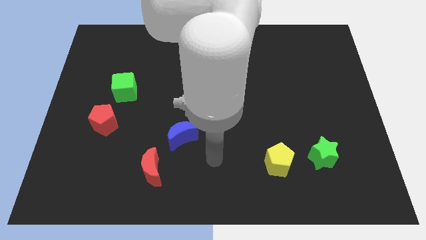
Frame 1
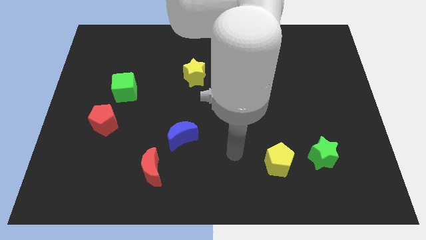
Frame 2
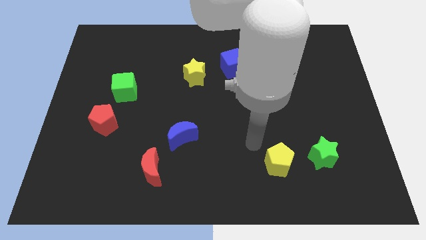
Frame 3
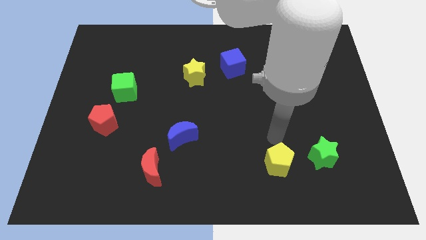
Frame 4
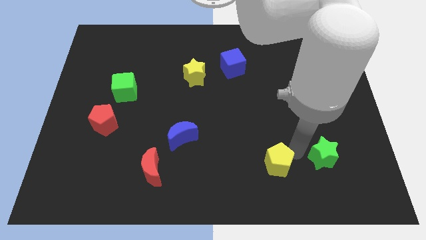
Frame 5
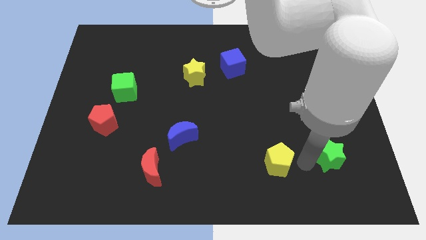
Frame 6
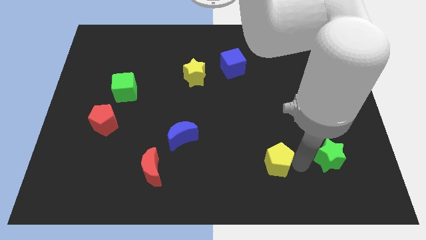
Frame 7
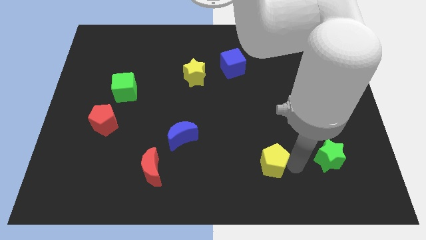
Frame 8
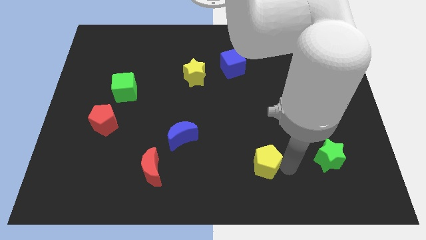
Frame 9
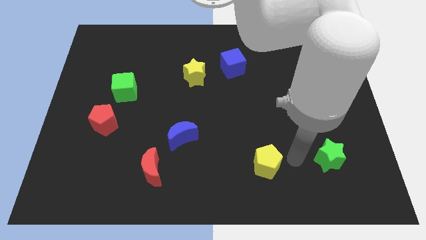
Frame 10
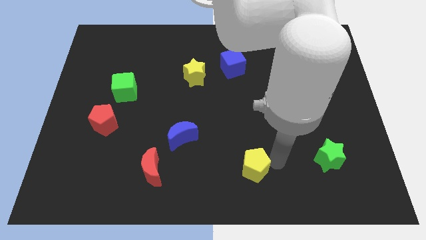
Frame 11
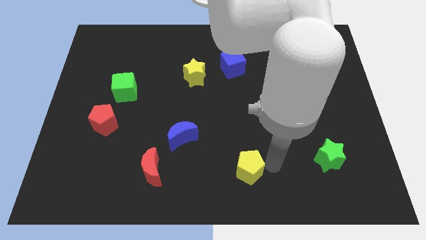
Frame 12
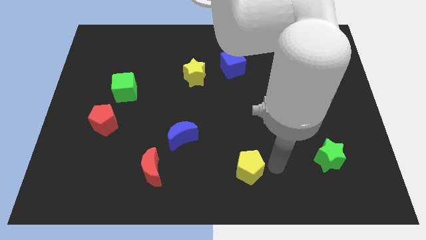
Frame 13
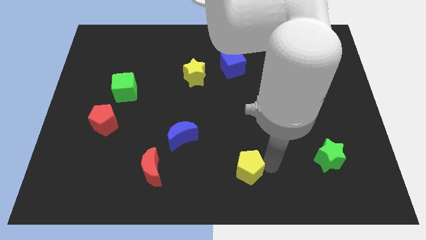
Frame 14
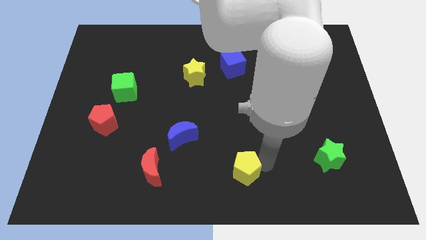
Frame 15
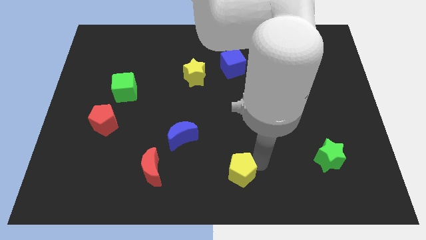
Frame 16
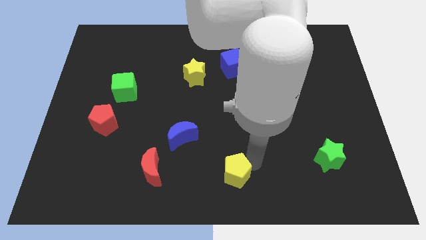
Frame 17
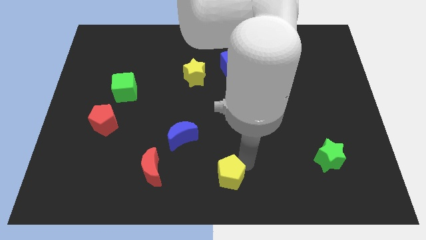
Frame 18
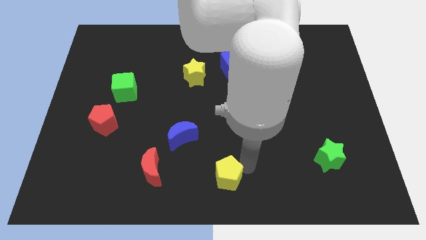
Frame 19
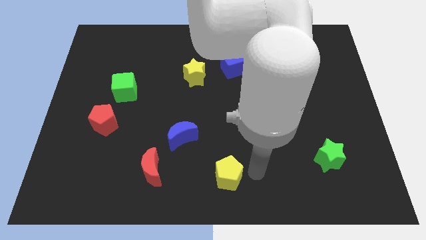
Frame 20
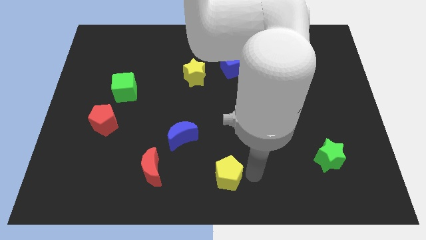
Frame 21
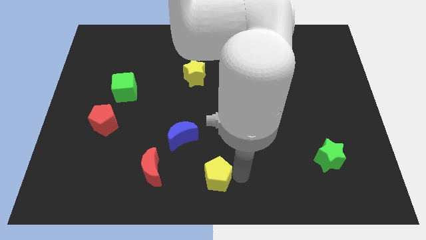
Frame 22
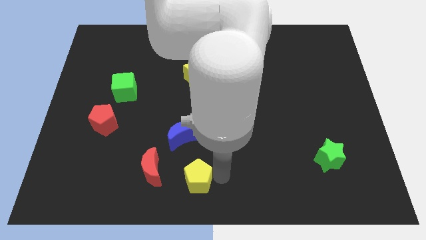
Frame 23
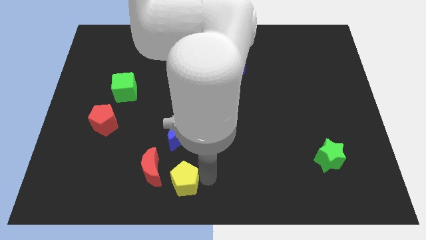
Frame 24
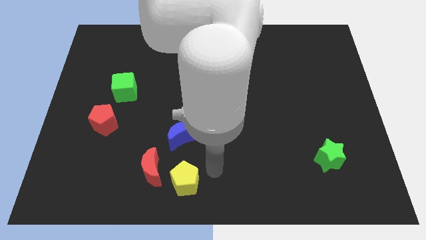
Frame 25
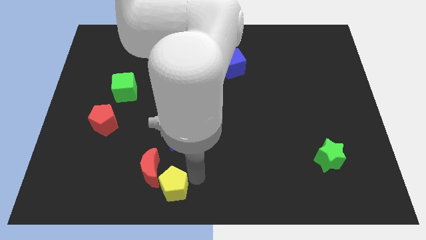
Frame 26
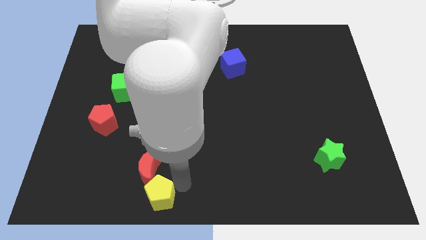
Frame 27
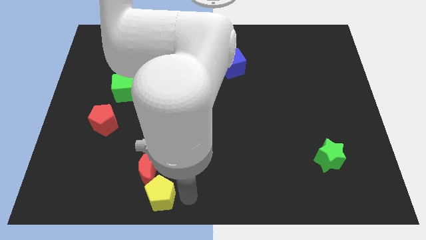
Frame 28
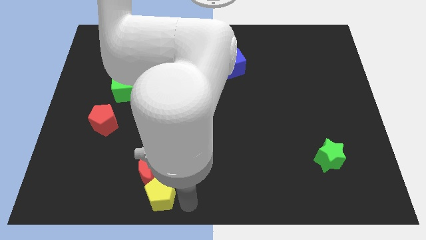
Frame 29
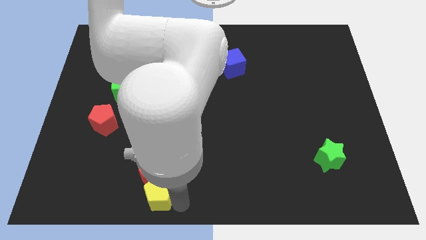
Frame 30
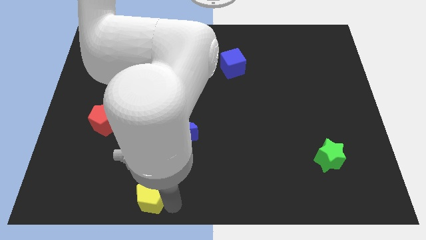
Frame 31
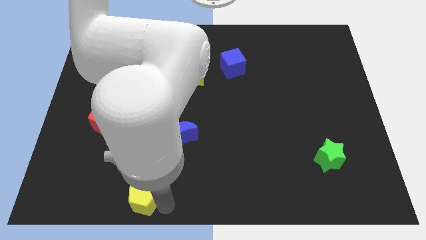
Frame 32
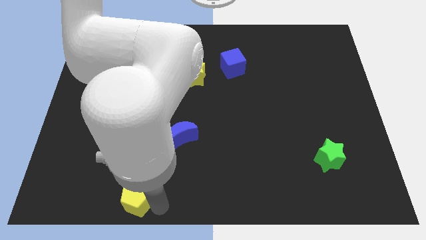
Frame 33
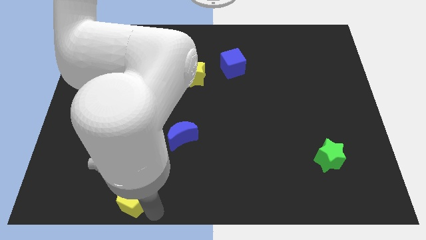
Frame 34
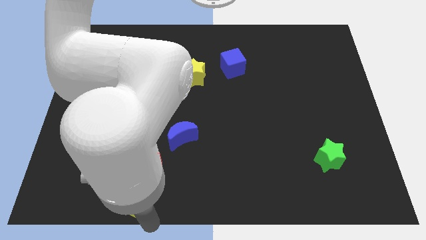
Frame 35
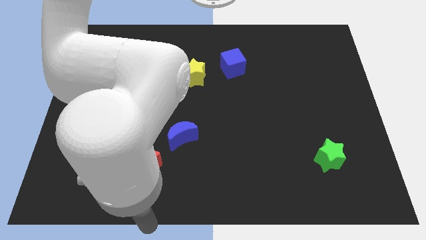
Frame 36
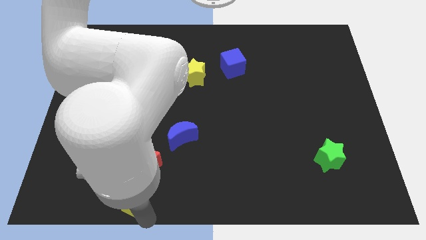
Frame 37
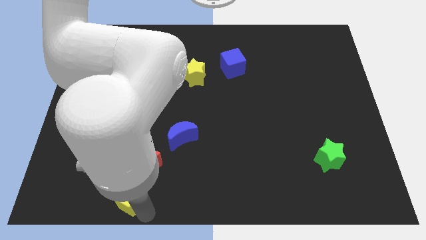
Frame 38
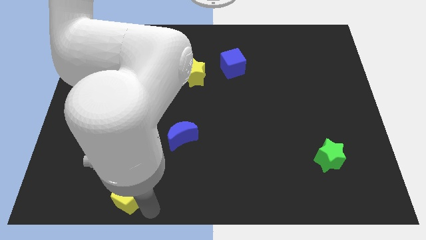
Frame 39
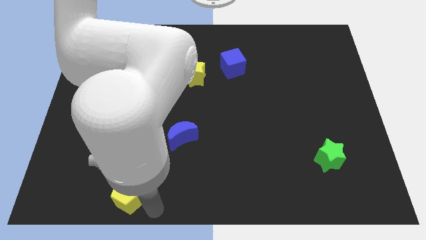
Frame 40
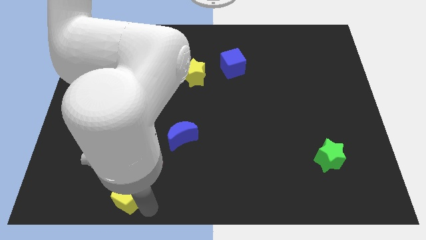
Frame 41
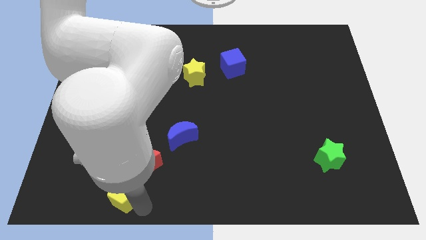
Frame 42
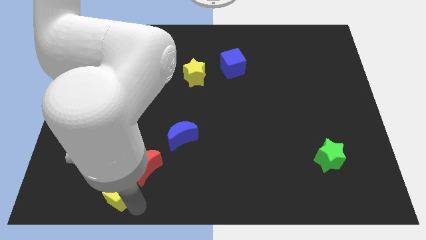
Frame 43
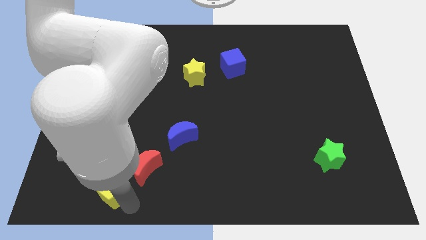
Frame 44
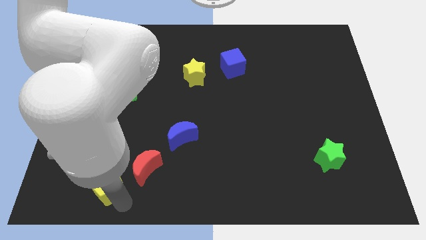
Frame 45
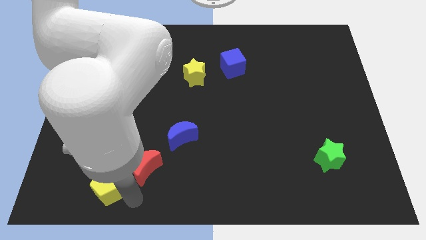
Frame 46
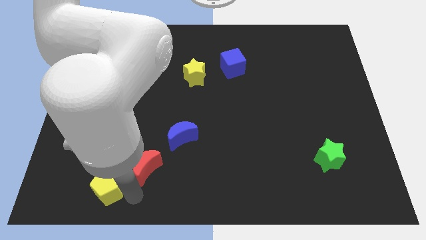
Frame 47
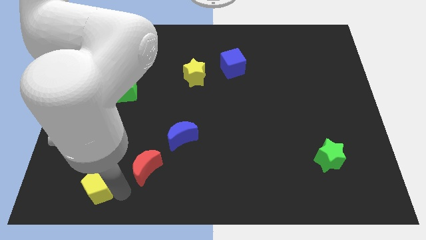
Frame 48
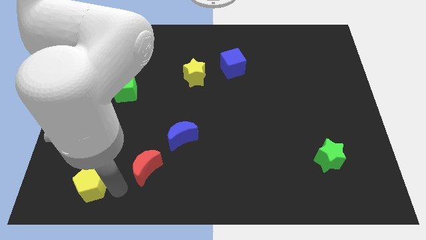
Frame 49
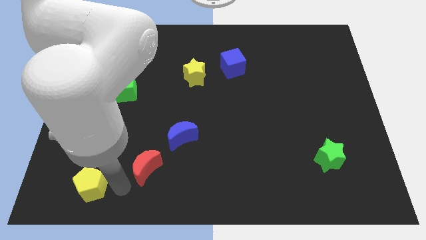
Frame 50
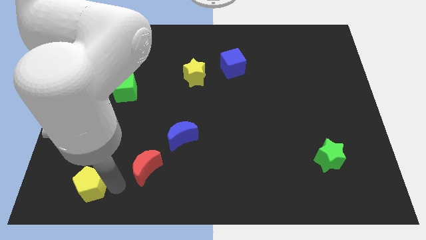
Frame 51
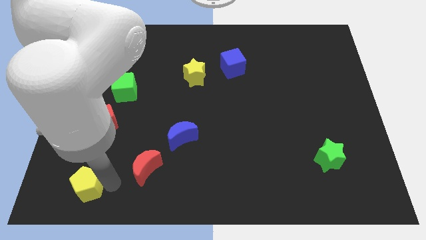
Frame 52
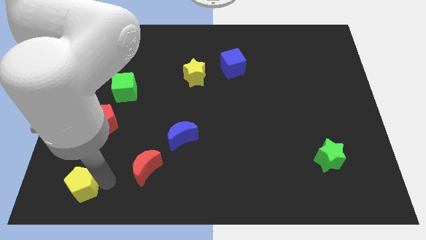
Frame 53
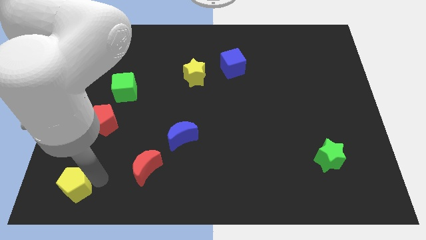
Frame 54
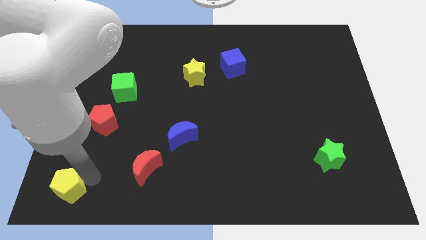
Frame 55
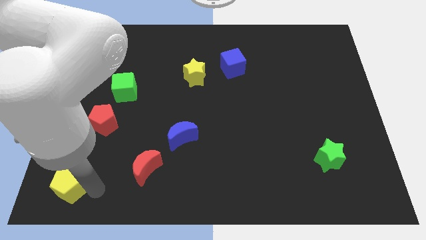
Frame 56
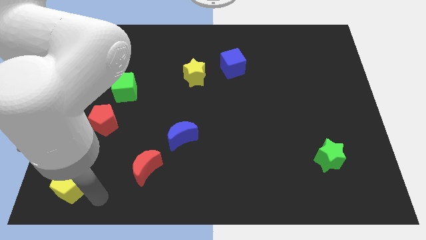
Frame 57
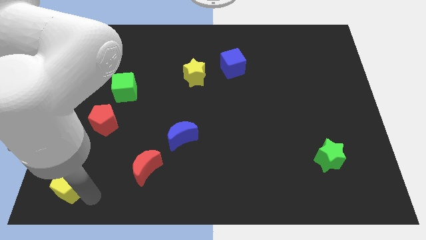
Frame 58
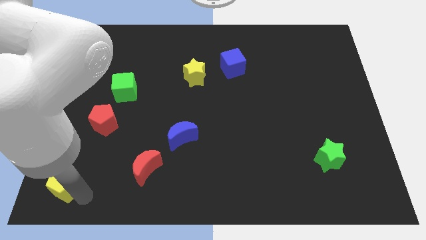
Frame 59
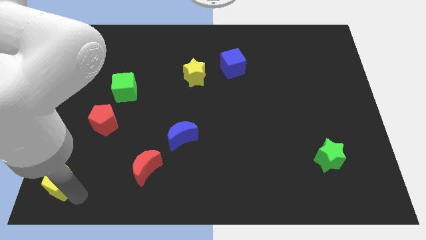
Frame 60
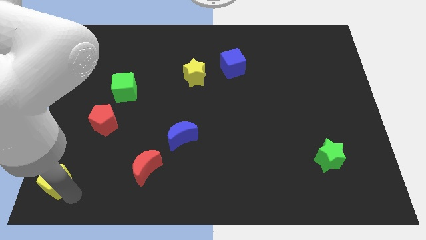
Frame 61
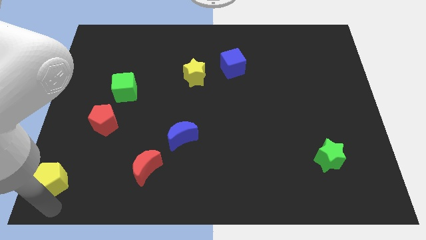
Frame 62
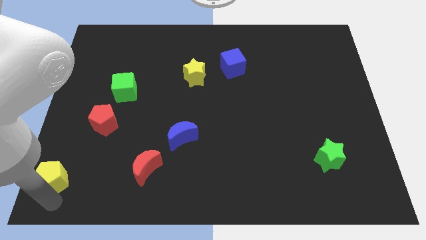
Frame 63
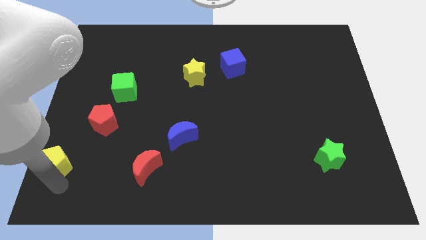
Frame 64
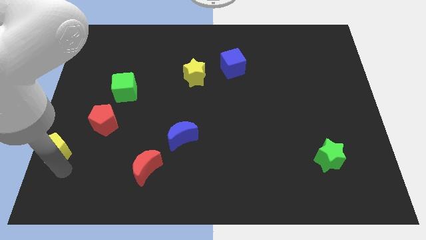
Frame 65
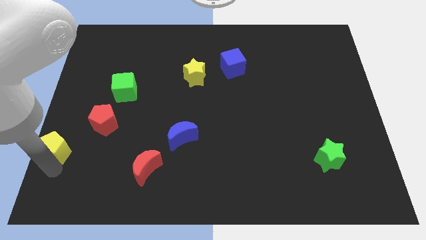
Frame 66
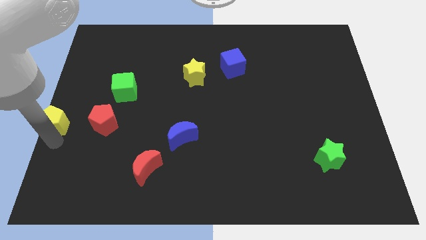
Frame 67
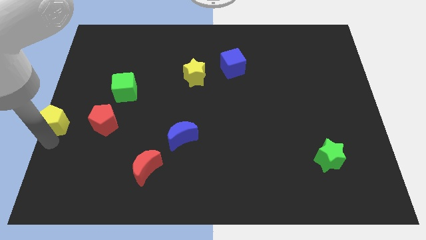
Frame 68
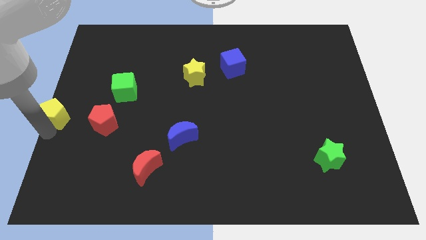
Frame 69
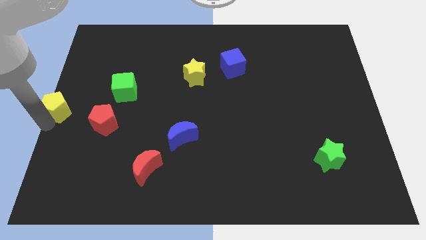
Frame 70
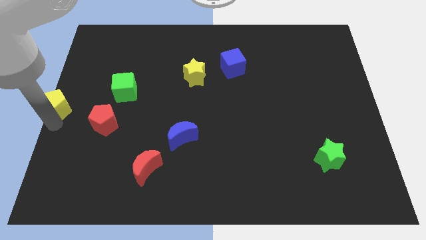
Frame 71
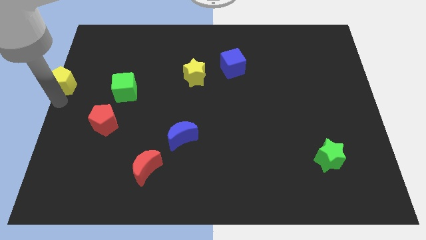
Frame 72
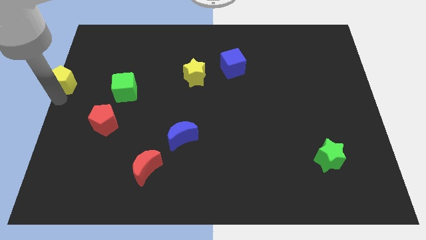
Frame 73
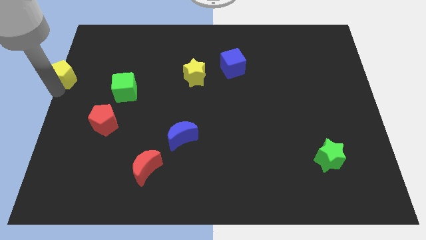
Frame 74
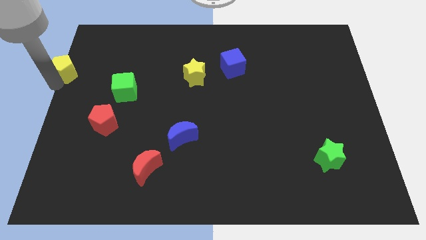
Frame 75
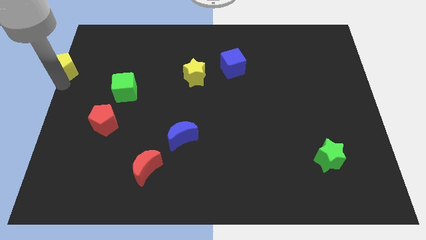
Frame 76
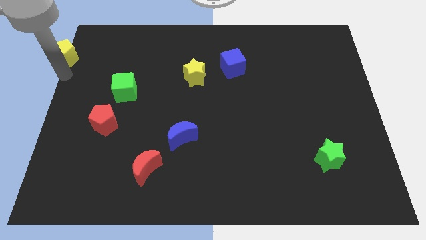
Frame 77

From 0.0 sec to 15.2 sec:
move the yellow pentagon to the top left of the board

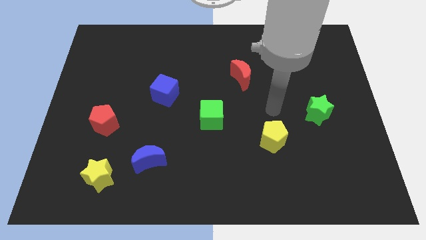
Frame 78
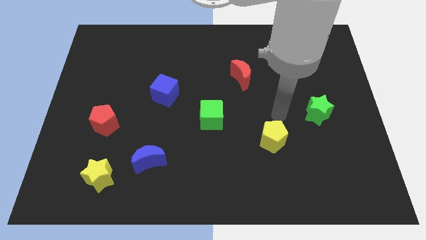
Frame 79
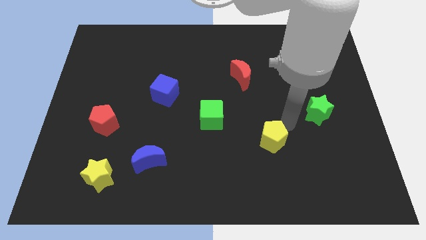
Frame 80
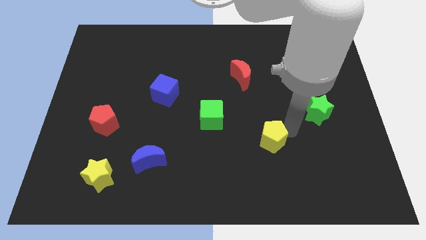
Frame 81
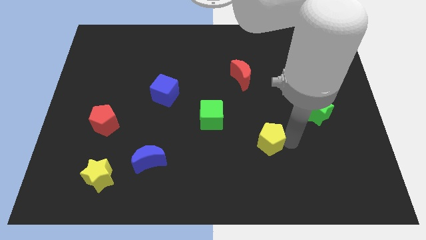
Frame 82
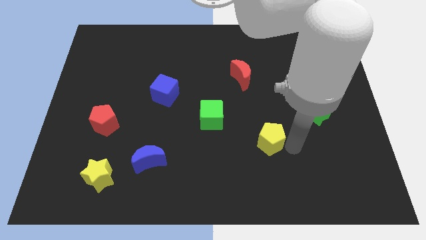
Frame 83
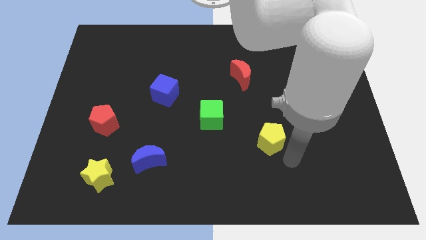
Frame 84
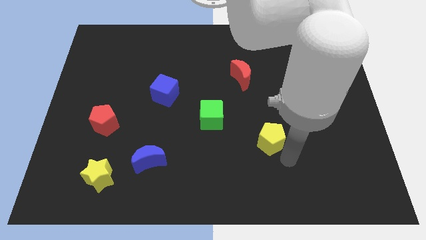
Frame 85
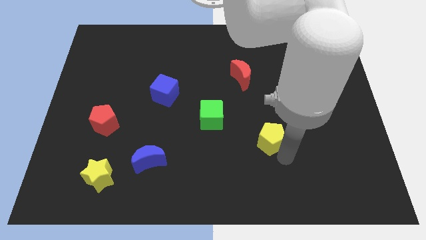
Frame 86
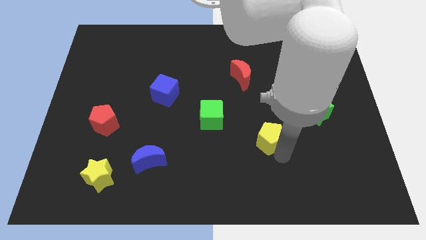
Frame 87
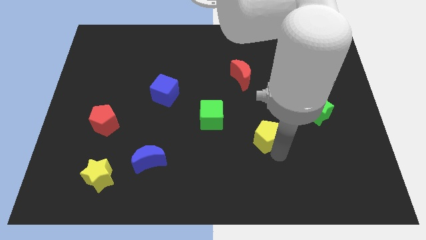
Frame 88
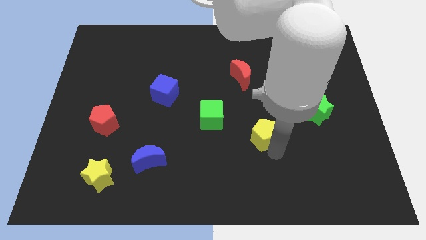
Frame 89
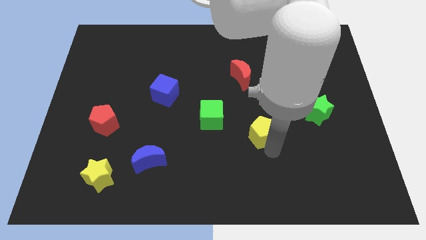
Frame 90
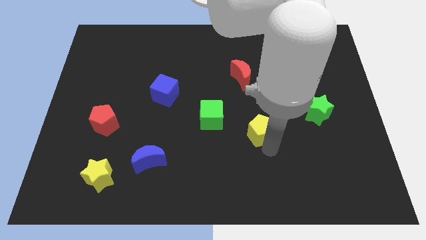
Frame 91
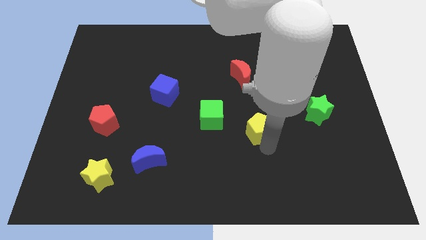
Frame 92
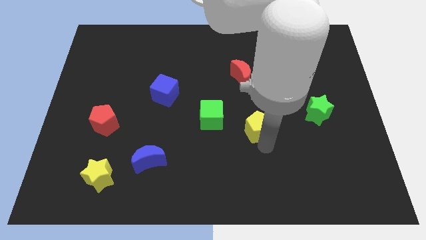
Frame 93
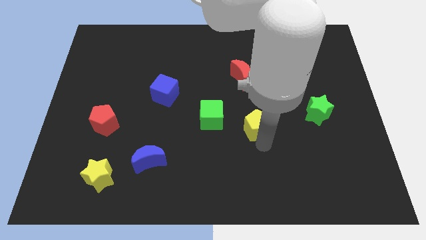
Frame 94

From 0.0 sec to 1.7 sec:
slide the yellow pentagon to the center
